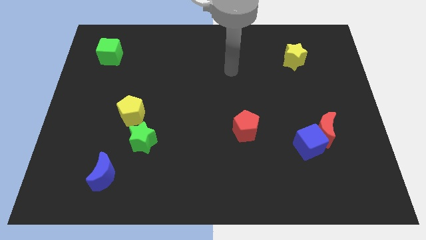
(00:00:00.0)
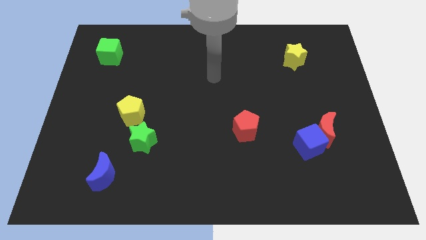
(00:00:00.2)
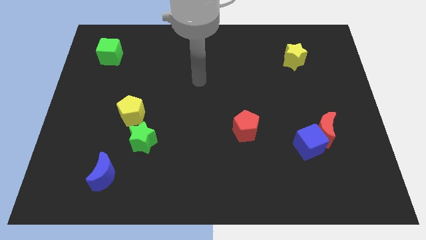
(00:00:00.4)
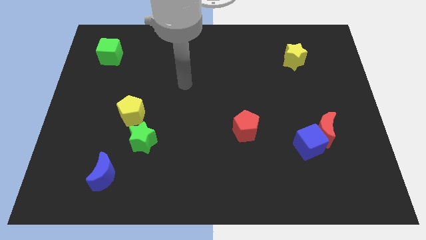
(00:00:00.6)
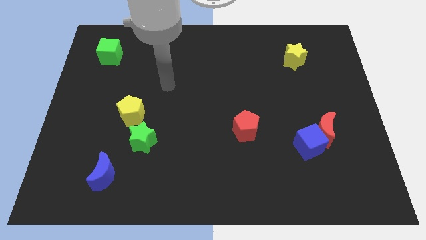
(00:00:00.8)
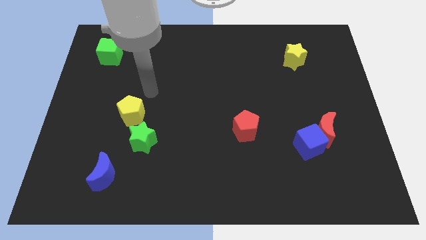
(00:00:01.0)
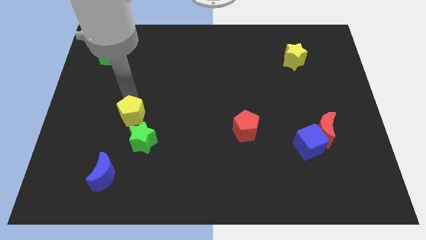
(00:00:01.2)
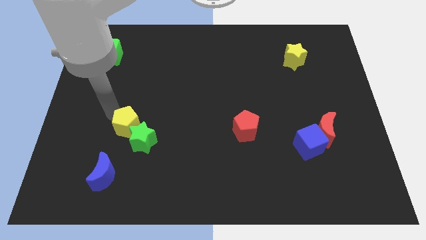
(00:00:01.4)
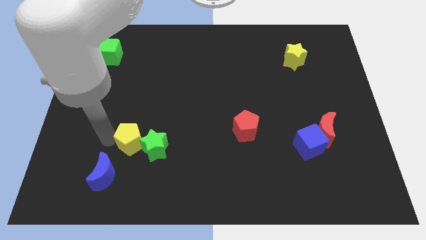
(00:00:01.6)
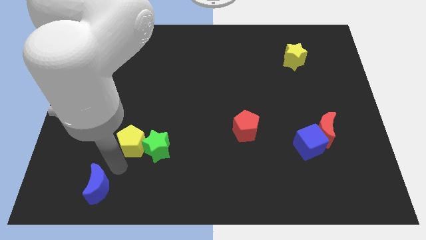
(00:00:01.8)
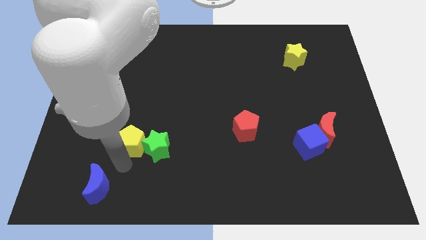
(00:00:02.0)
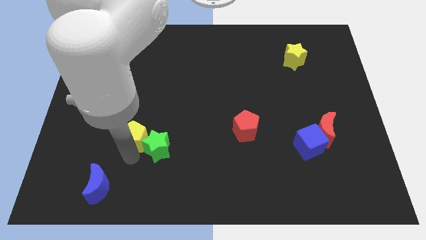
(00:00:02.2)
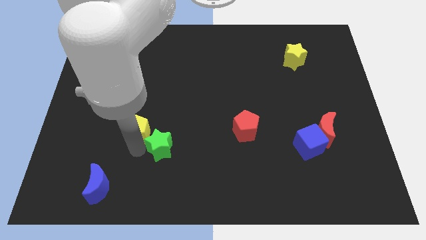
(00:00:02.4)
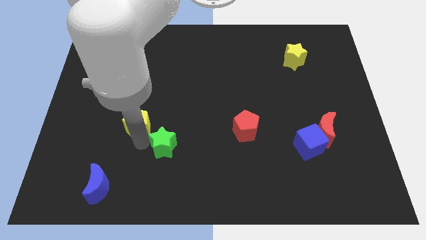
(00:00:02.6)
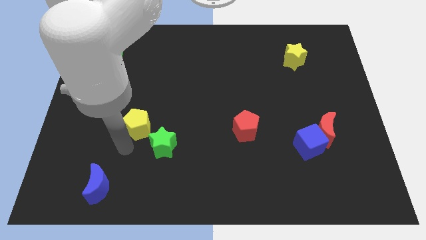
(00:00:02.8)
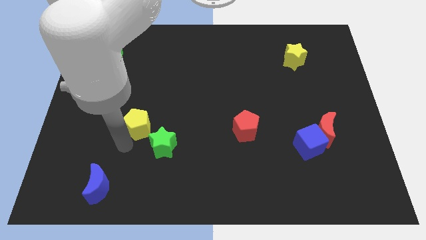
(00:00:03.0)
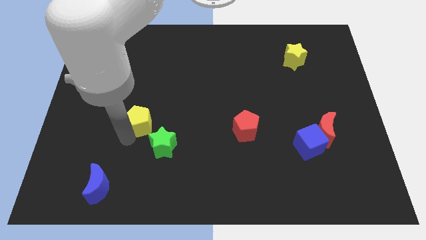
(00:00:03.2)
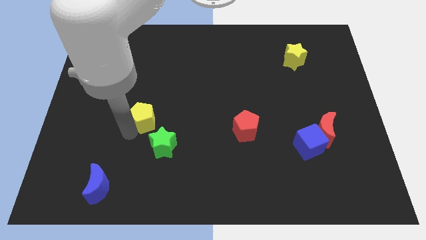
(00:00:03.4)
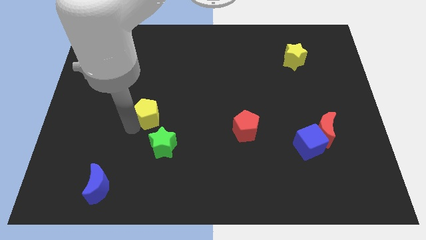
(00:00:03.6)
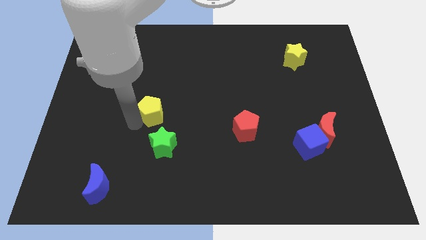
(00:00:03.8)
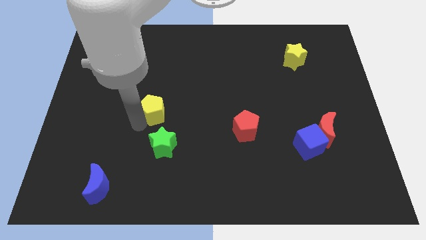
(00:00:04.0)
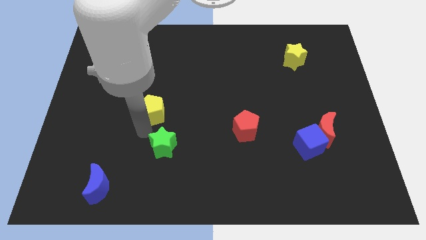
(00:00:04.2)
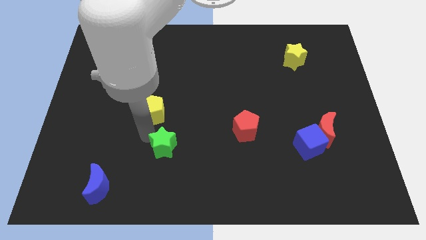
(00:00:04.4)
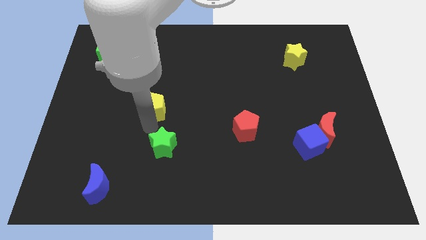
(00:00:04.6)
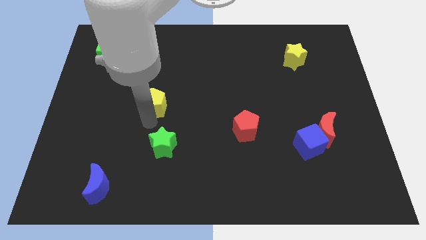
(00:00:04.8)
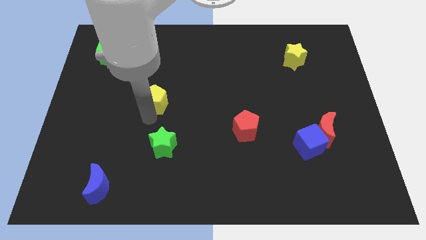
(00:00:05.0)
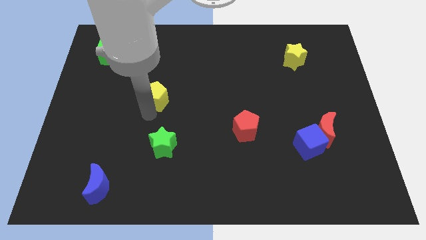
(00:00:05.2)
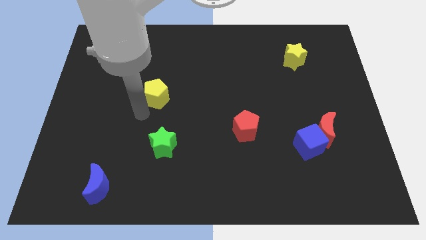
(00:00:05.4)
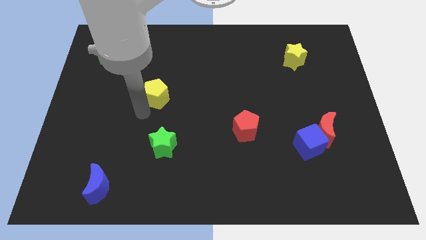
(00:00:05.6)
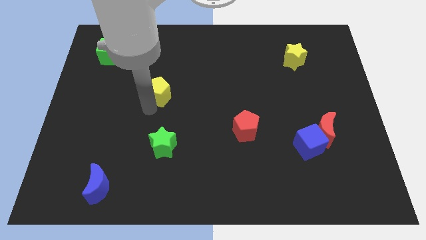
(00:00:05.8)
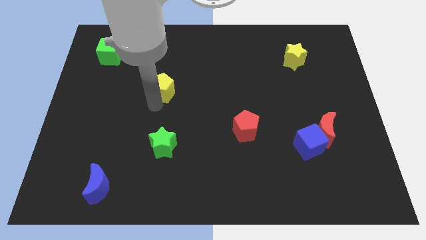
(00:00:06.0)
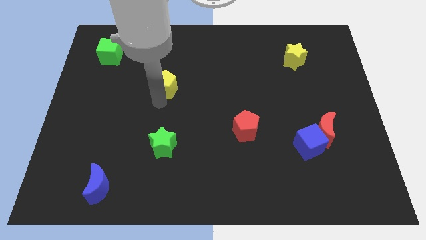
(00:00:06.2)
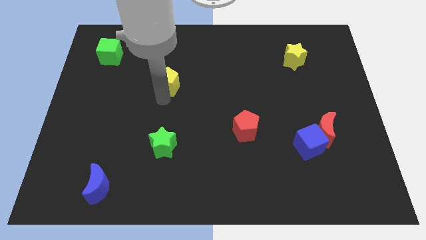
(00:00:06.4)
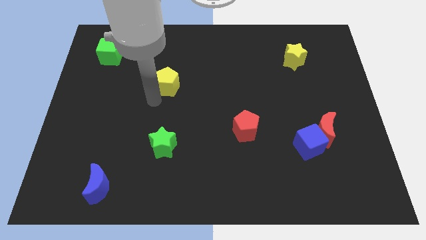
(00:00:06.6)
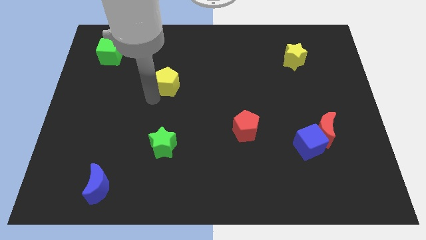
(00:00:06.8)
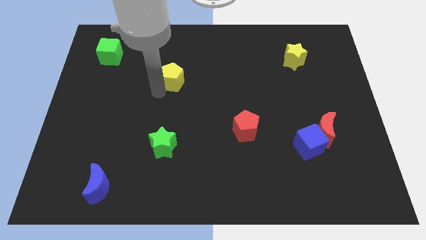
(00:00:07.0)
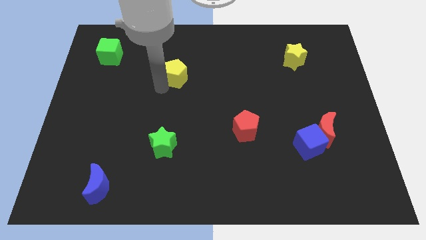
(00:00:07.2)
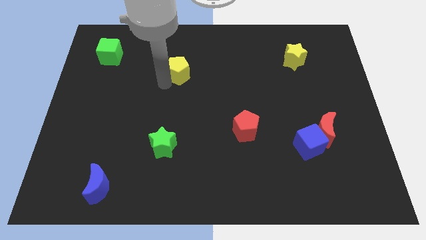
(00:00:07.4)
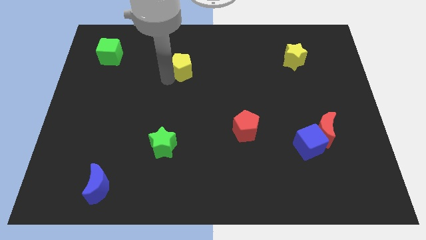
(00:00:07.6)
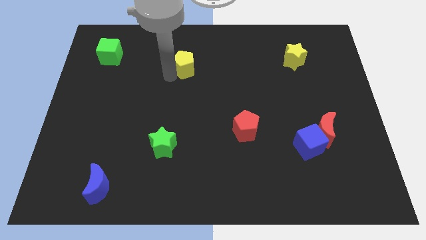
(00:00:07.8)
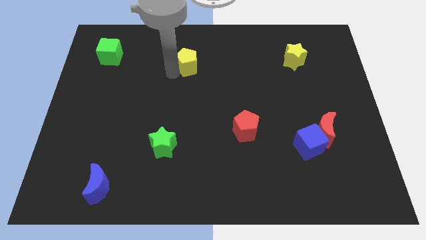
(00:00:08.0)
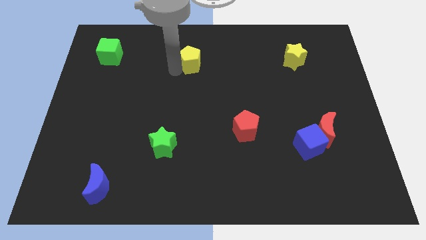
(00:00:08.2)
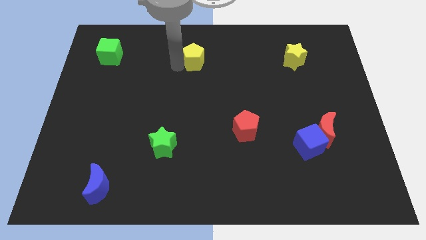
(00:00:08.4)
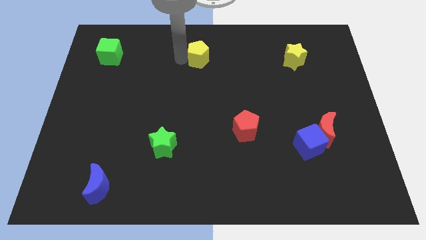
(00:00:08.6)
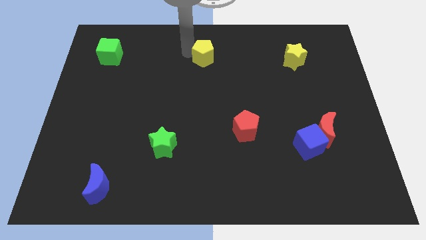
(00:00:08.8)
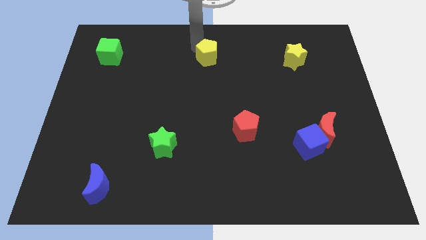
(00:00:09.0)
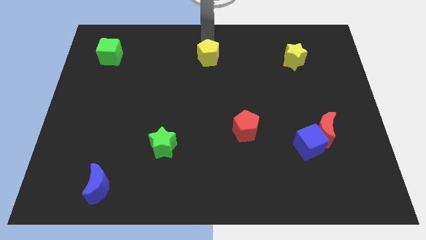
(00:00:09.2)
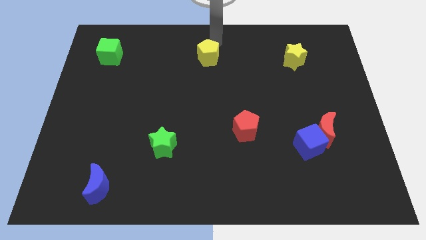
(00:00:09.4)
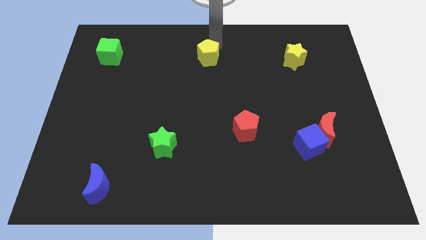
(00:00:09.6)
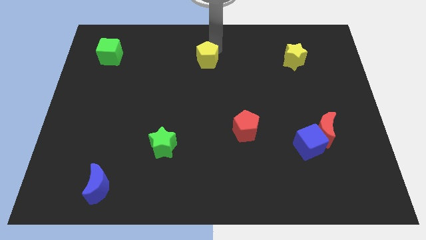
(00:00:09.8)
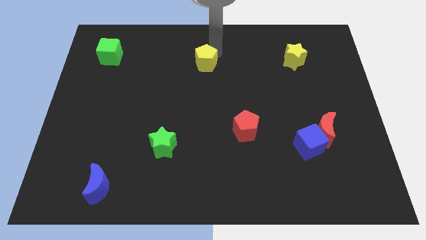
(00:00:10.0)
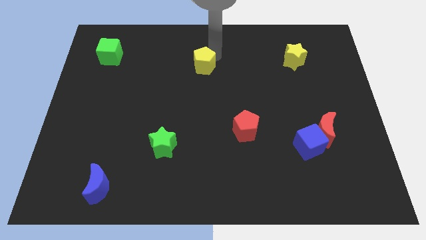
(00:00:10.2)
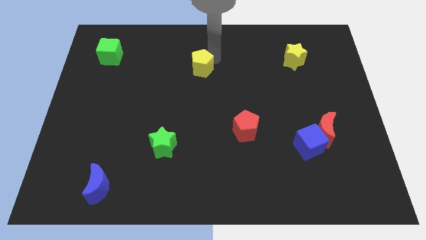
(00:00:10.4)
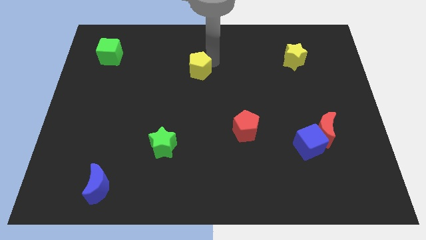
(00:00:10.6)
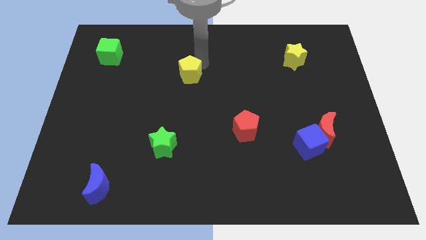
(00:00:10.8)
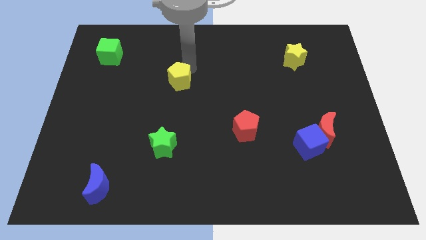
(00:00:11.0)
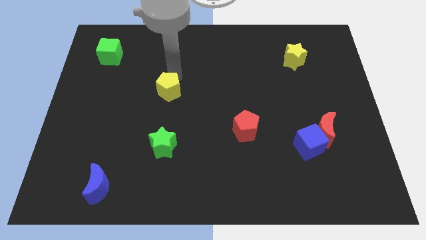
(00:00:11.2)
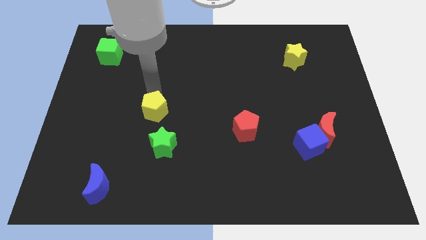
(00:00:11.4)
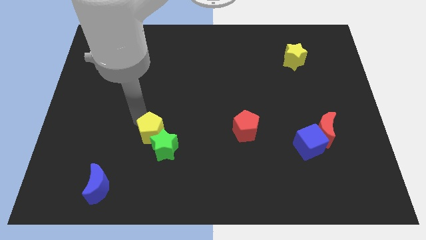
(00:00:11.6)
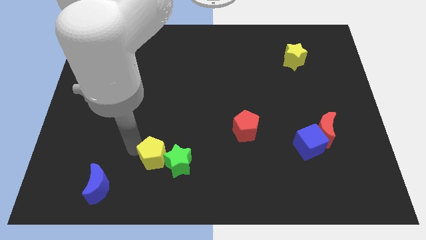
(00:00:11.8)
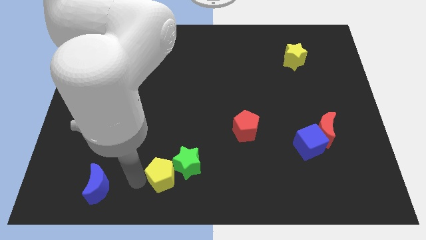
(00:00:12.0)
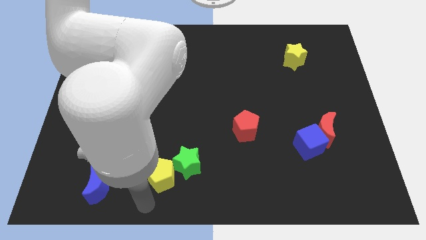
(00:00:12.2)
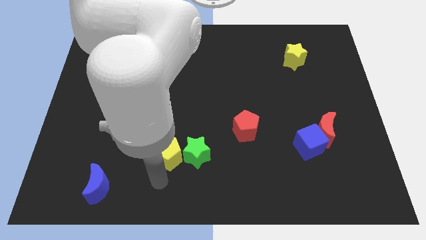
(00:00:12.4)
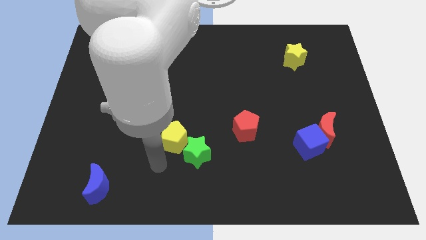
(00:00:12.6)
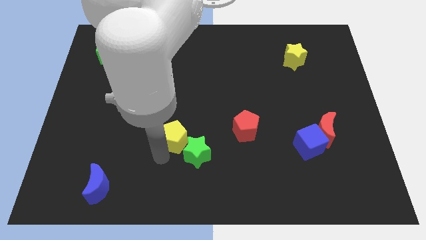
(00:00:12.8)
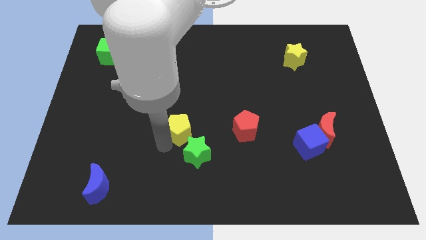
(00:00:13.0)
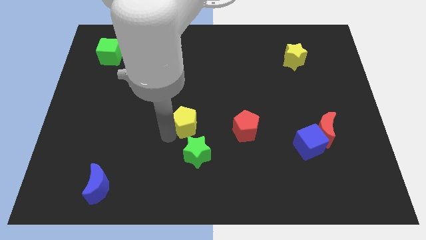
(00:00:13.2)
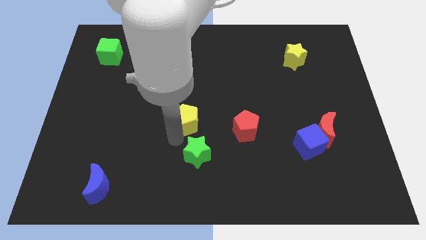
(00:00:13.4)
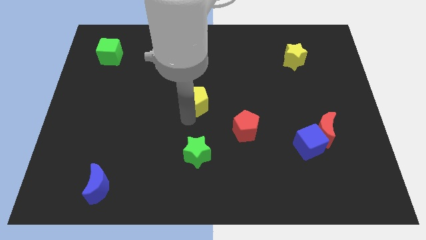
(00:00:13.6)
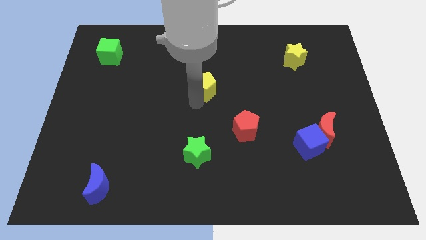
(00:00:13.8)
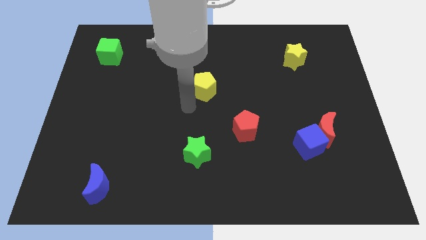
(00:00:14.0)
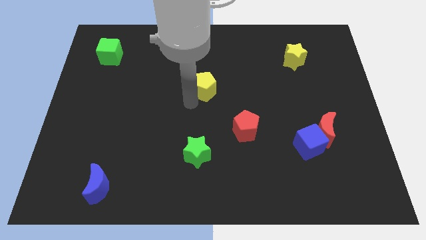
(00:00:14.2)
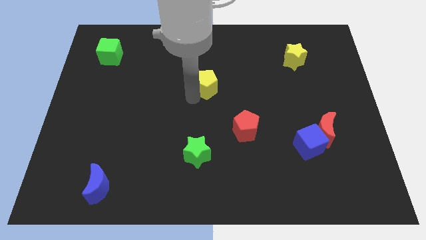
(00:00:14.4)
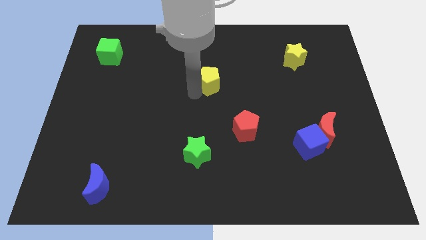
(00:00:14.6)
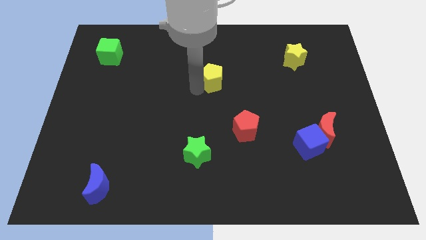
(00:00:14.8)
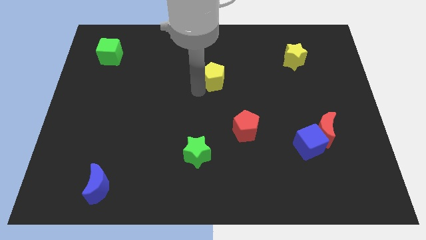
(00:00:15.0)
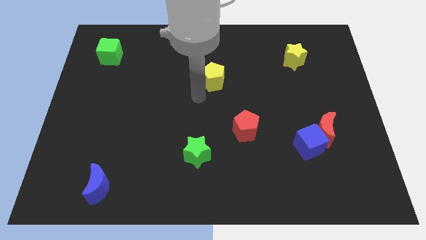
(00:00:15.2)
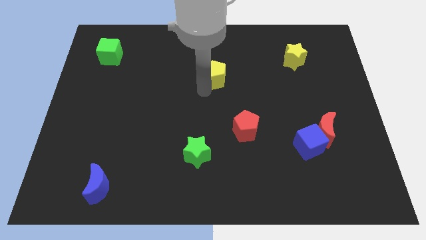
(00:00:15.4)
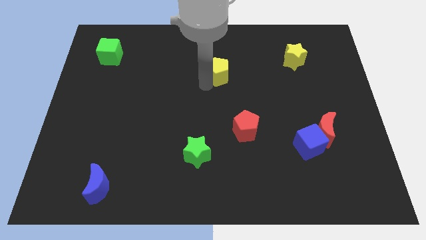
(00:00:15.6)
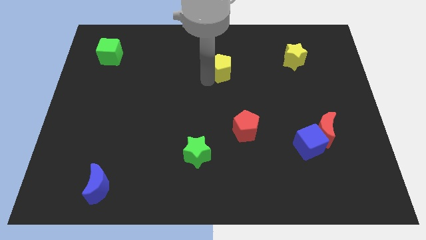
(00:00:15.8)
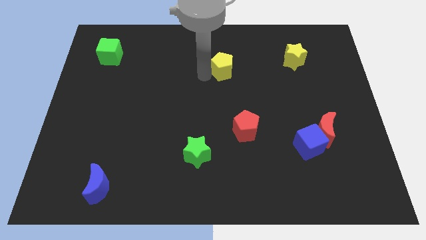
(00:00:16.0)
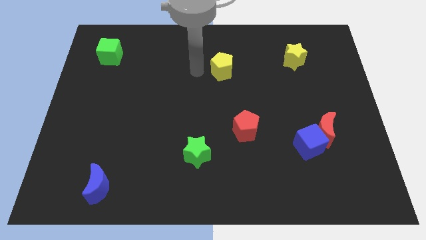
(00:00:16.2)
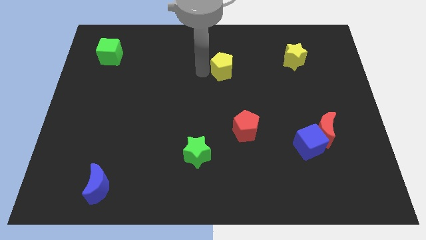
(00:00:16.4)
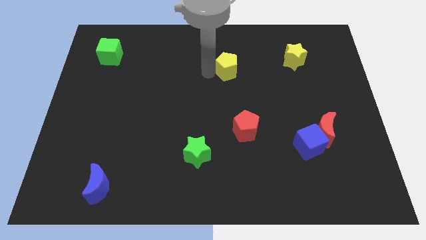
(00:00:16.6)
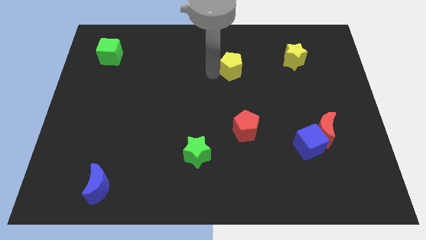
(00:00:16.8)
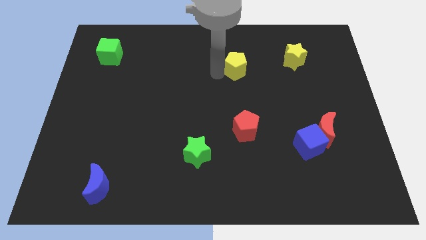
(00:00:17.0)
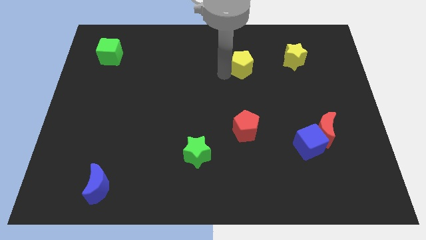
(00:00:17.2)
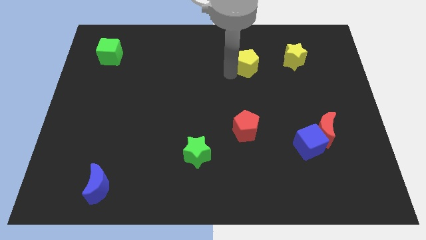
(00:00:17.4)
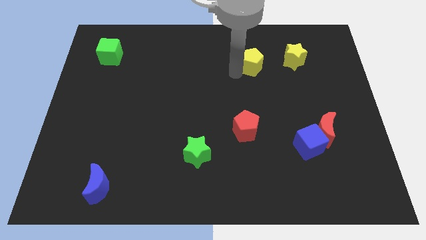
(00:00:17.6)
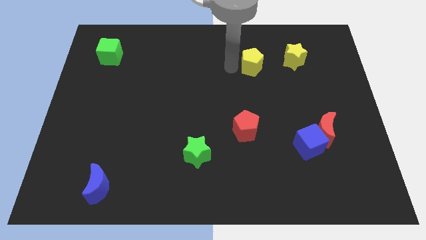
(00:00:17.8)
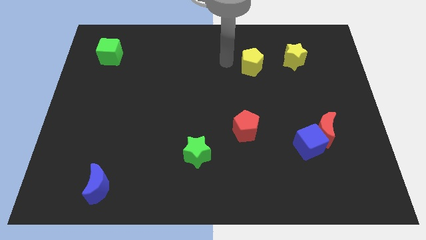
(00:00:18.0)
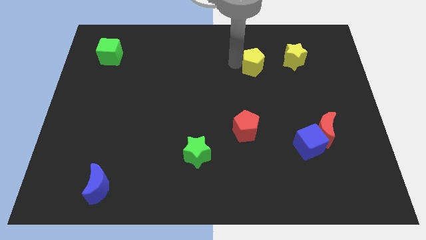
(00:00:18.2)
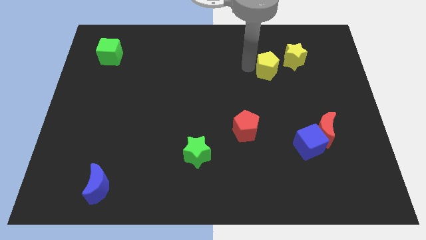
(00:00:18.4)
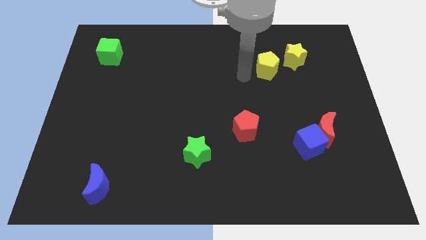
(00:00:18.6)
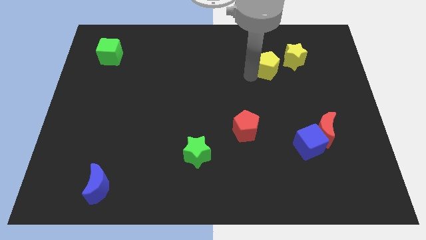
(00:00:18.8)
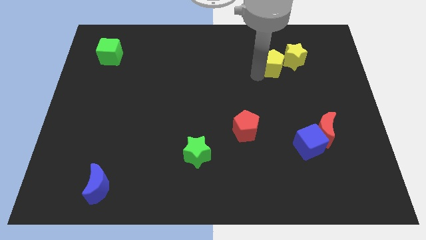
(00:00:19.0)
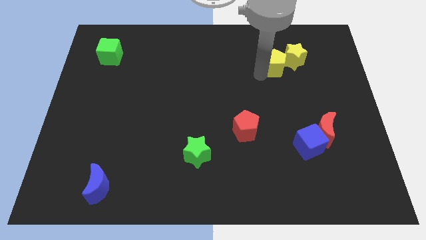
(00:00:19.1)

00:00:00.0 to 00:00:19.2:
put the yellow pentagon towards the yellow star
